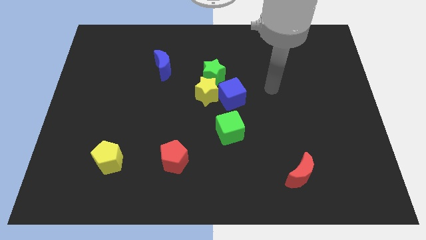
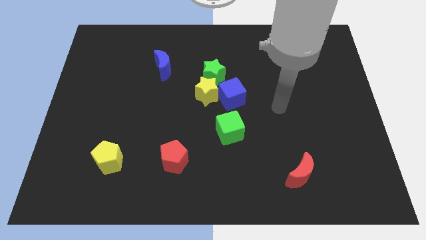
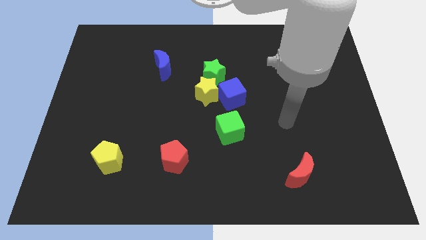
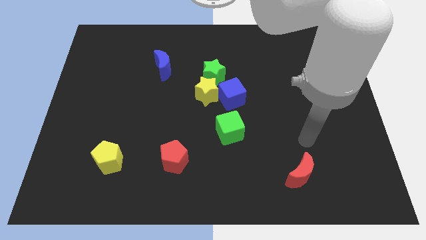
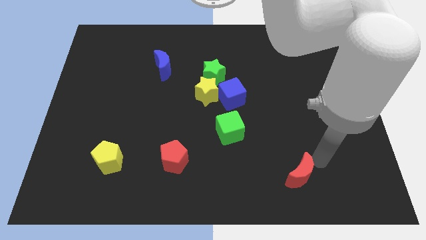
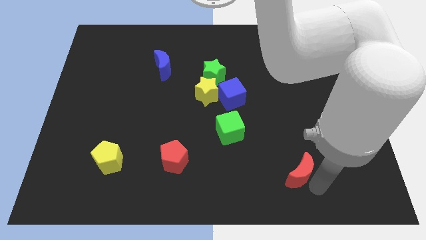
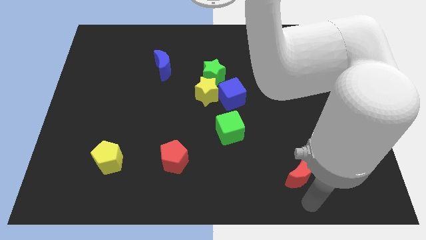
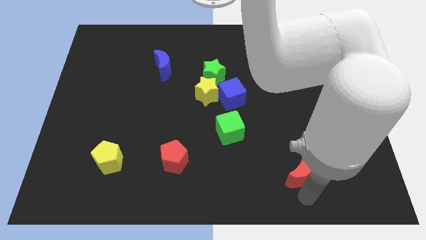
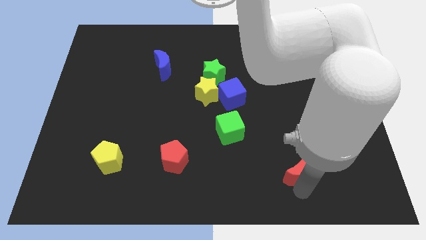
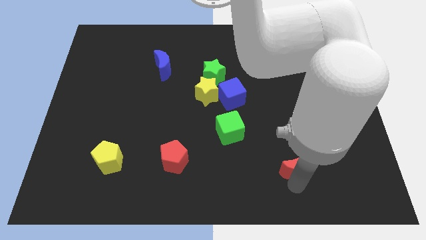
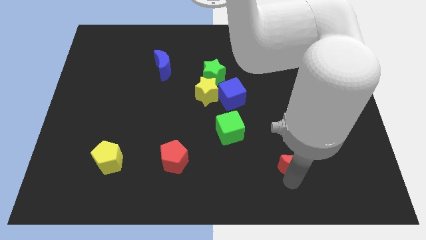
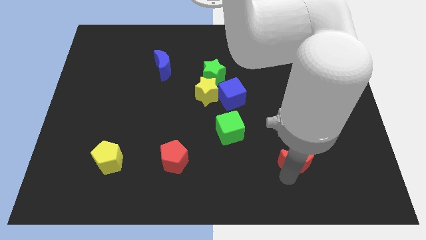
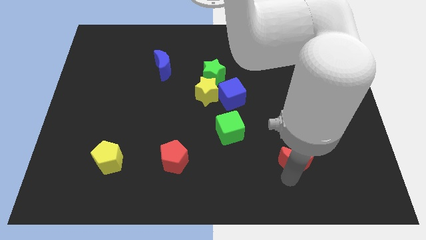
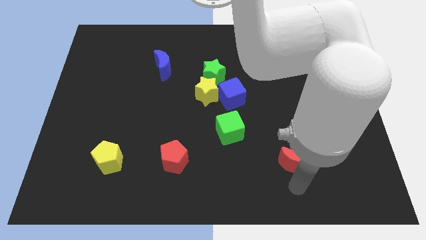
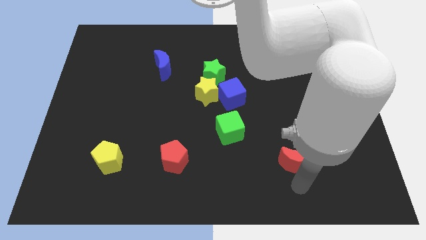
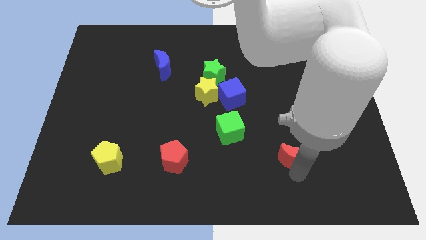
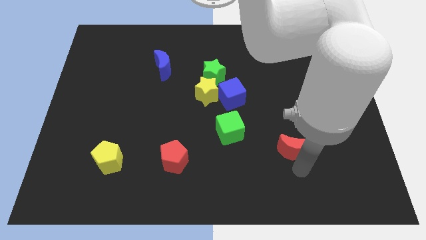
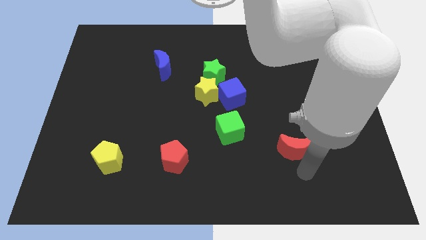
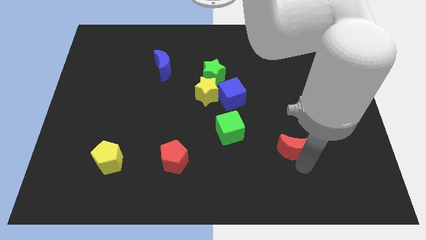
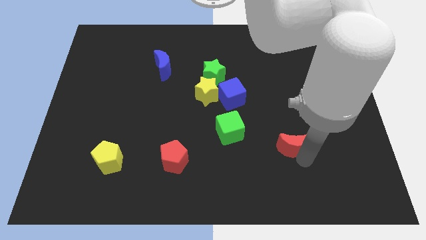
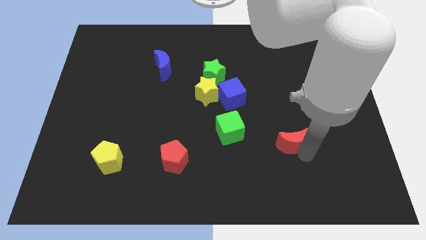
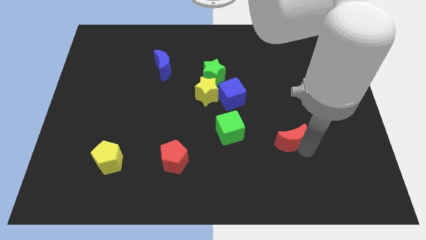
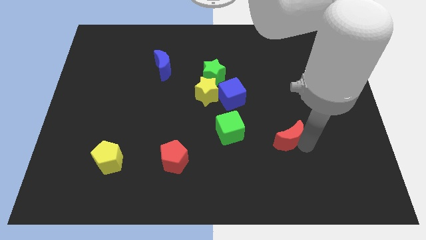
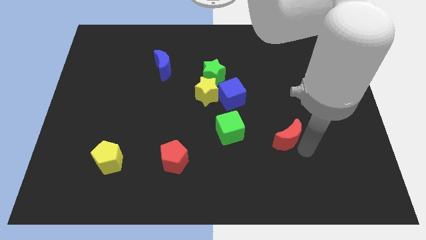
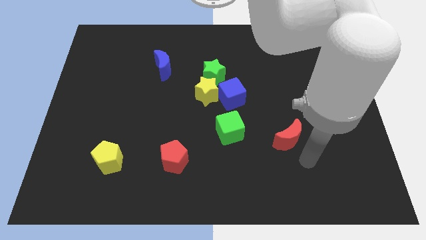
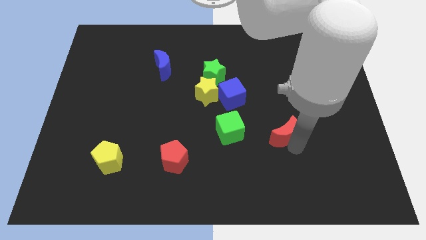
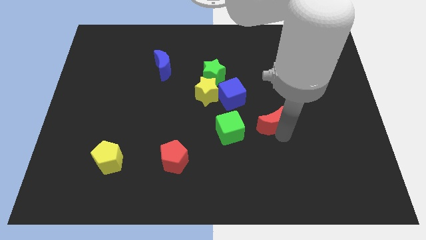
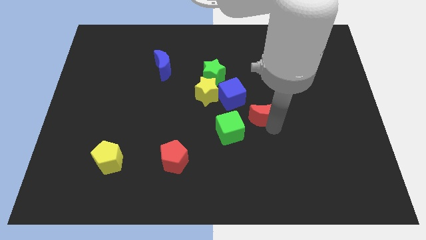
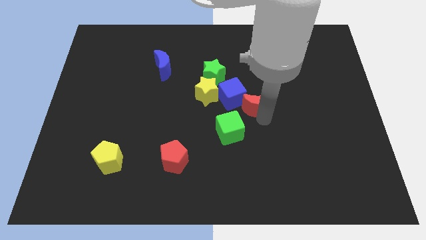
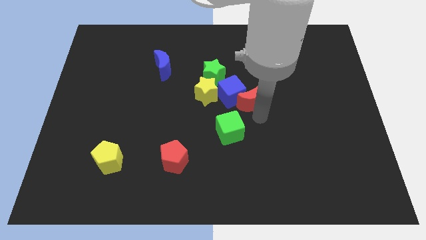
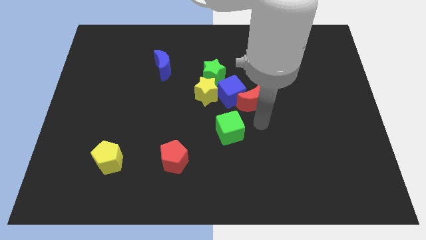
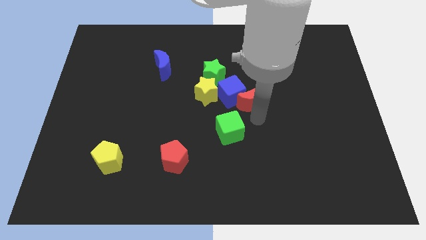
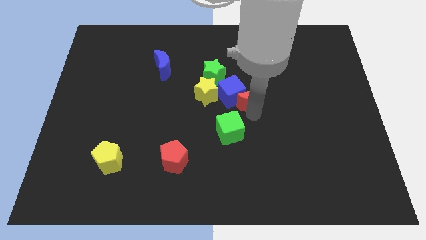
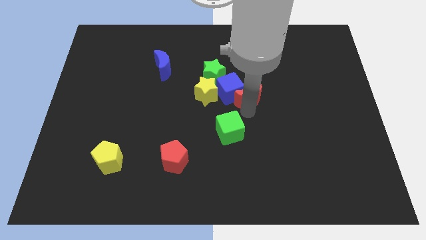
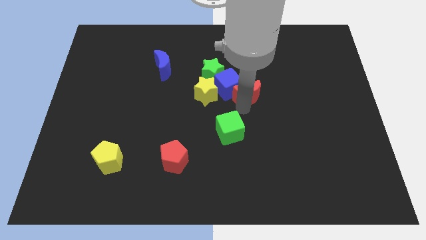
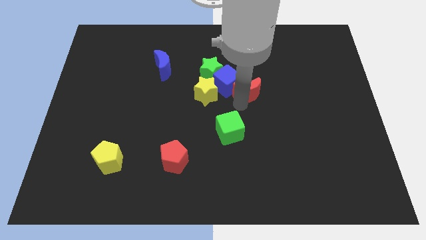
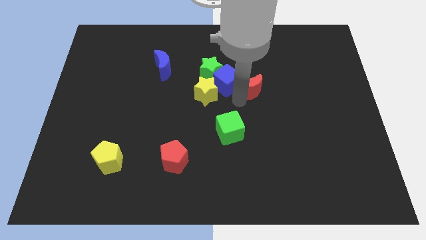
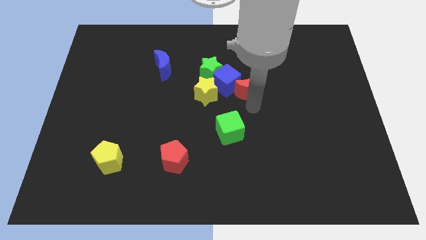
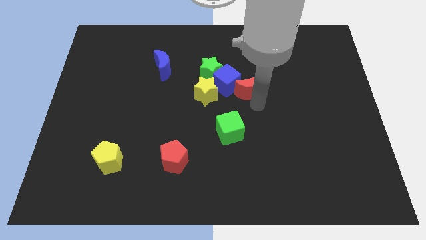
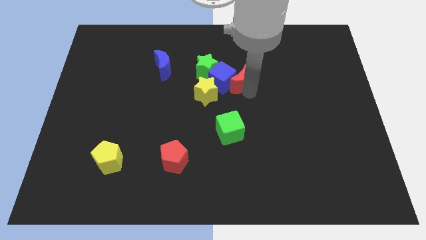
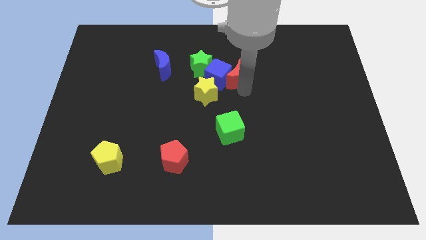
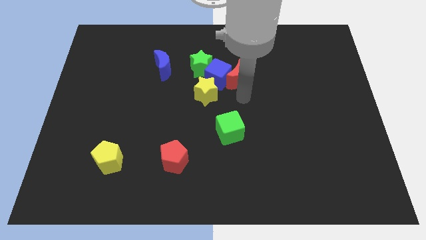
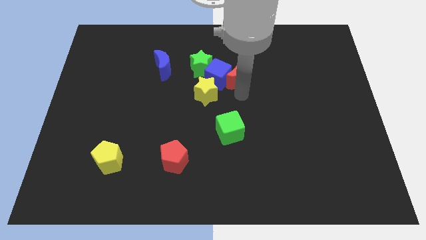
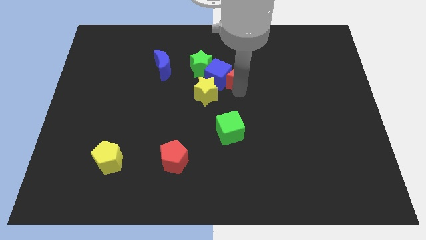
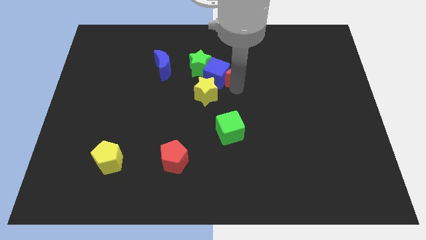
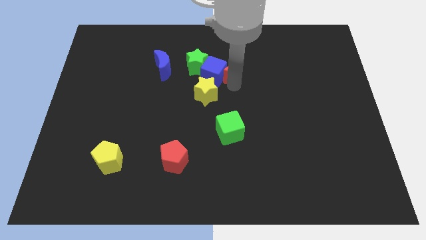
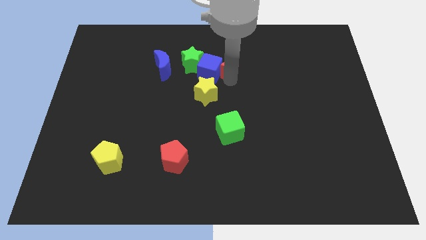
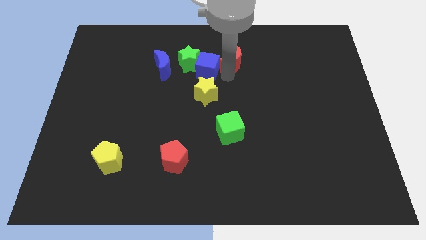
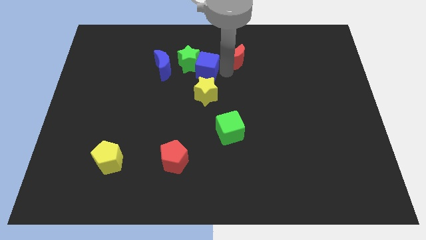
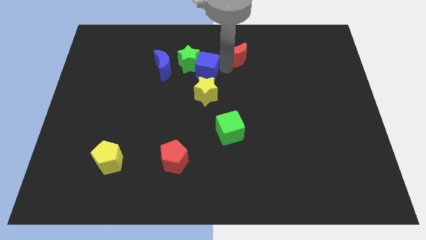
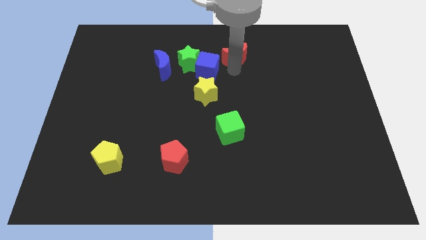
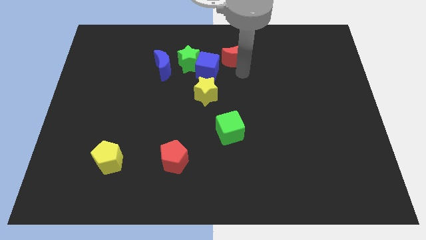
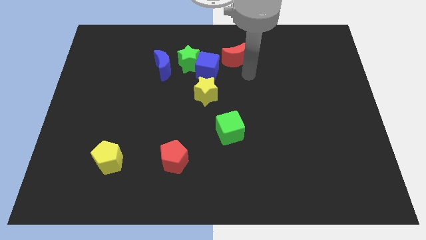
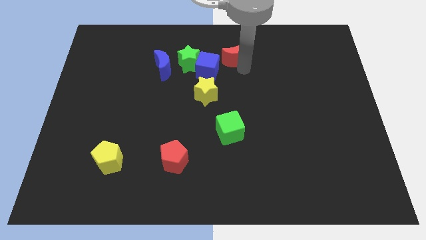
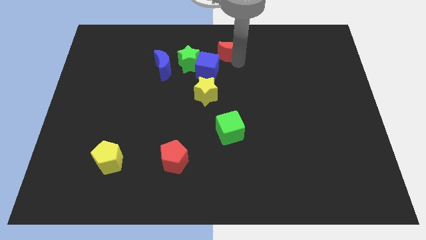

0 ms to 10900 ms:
push the red moon to the towards your base

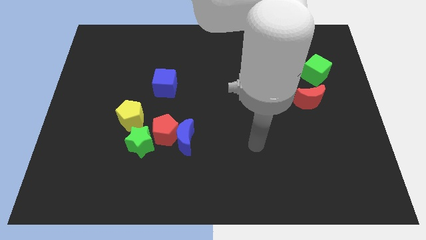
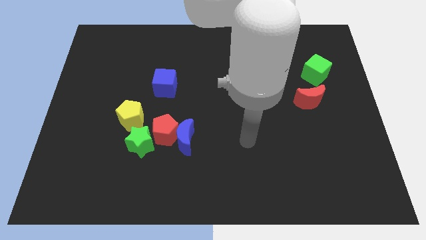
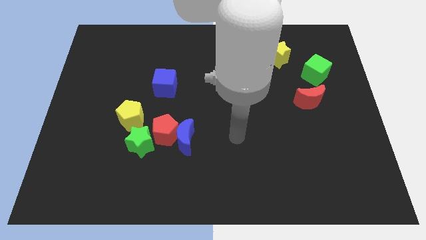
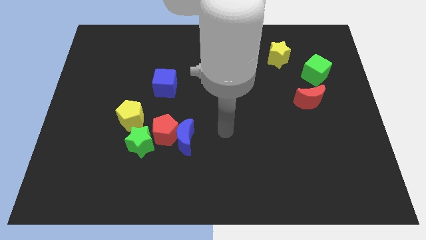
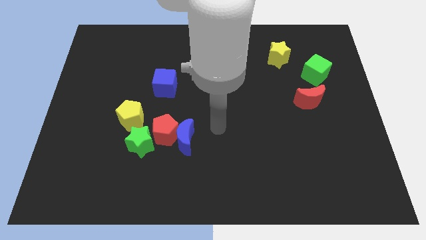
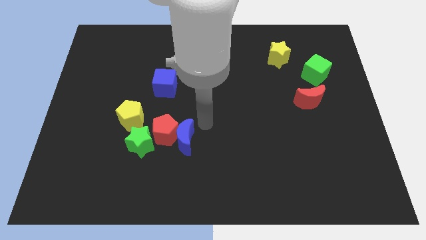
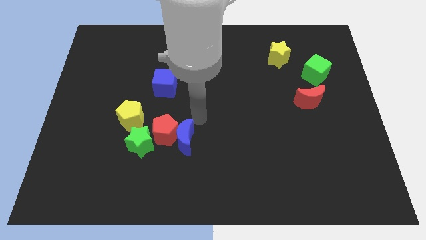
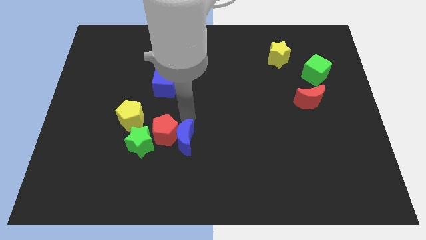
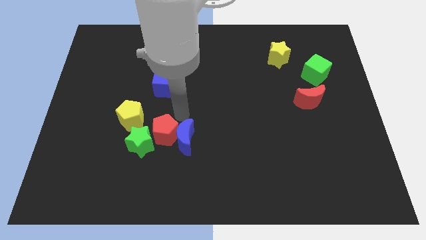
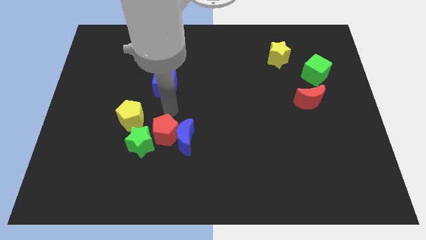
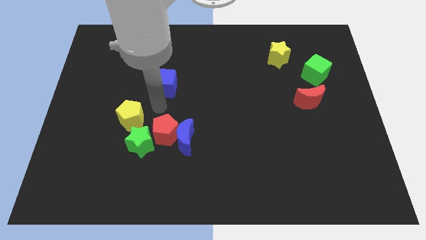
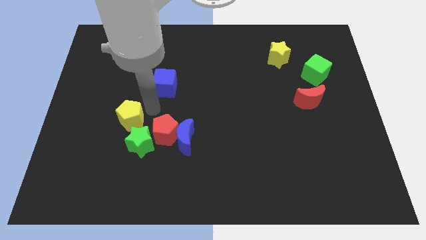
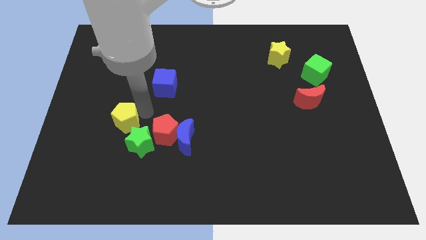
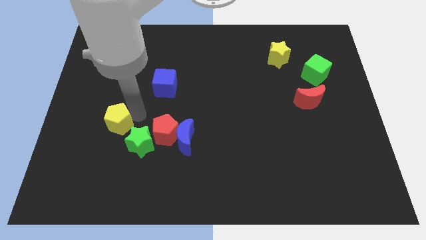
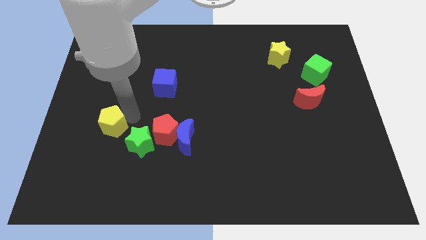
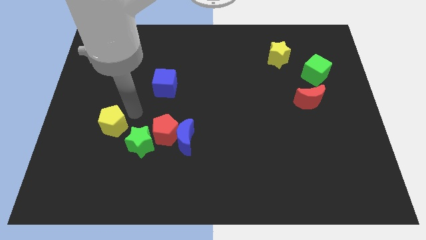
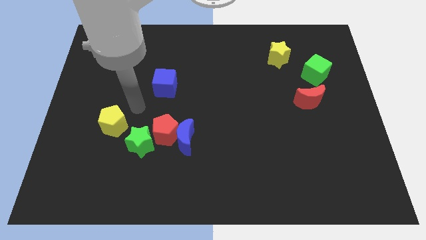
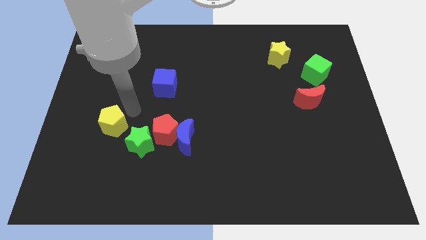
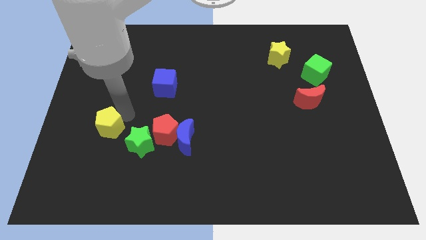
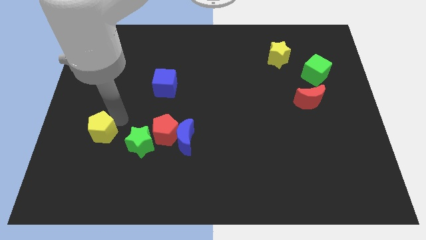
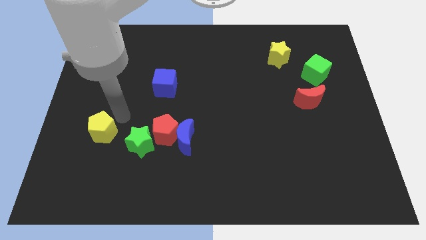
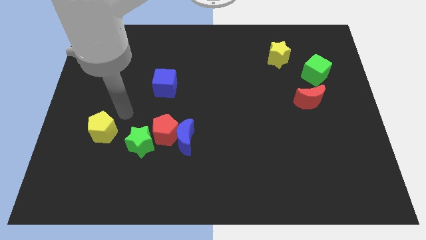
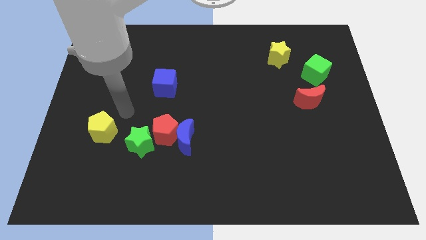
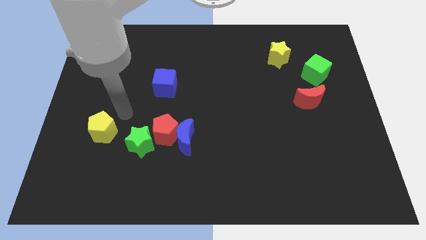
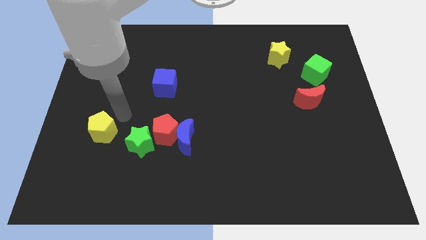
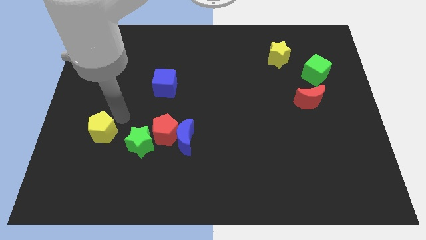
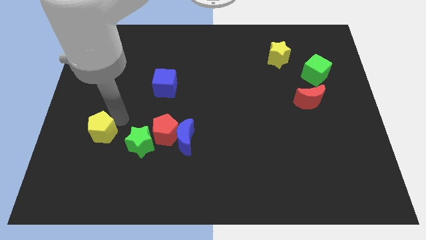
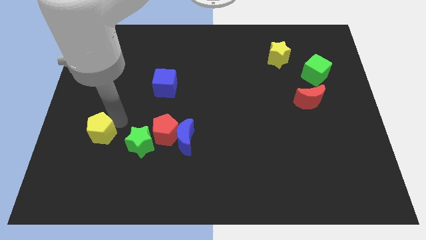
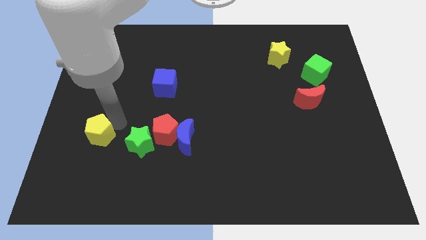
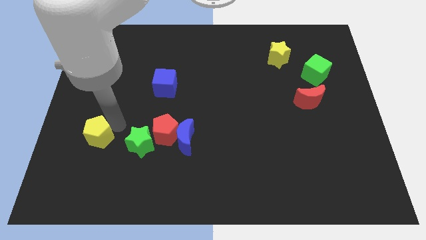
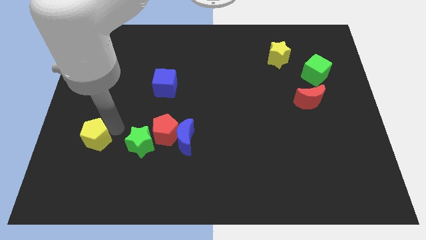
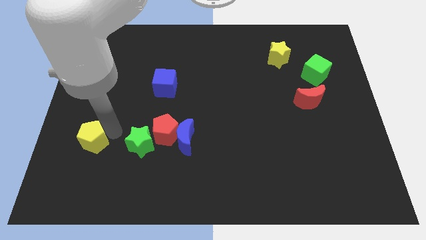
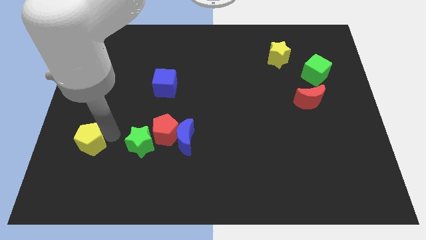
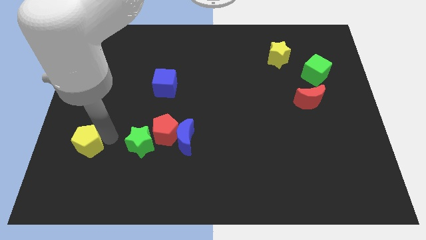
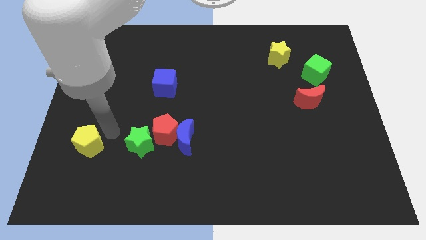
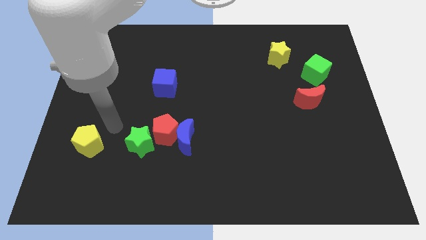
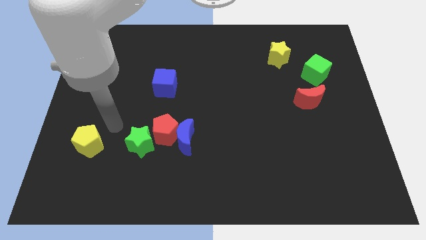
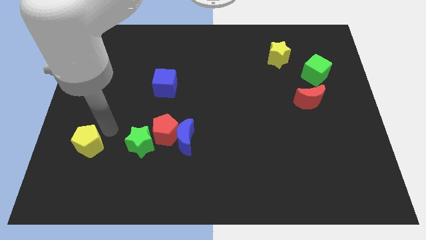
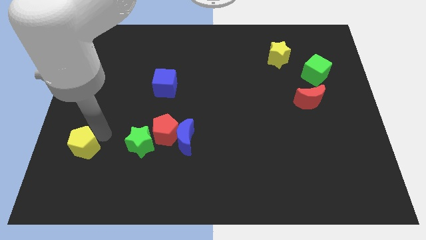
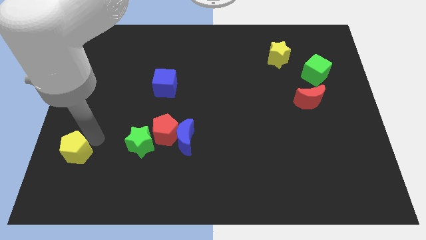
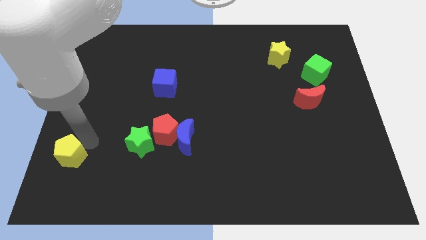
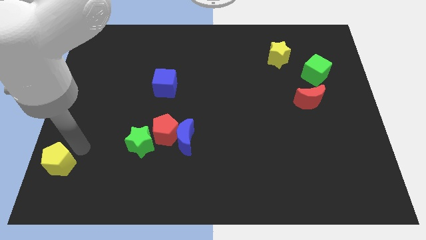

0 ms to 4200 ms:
push the yellow pentagon to the bottom left
